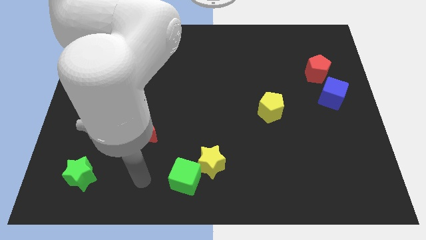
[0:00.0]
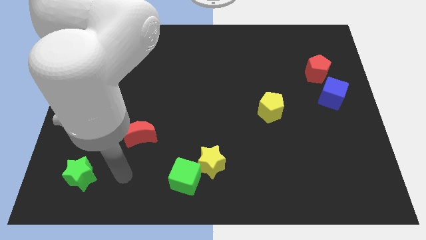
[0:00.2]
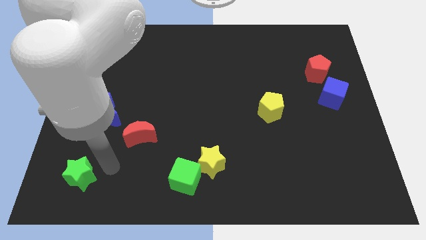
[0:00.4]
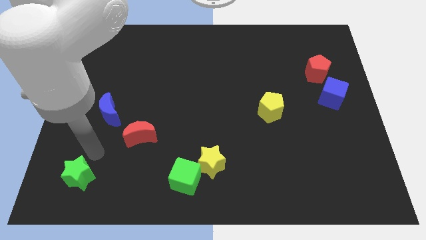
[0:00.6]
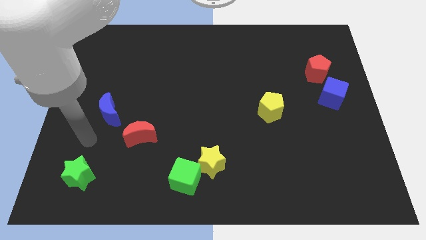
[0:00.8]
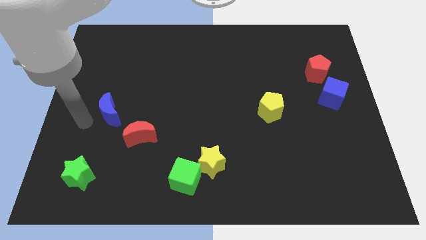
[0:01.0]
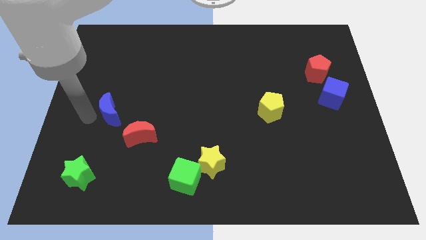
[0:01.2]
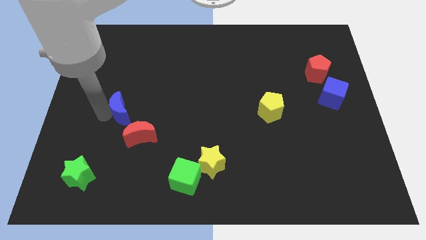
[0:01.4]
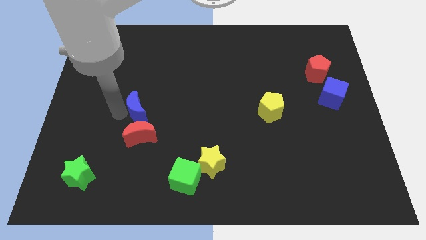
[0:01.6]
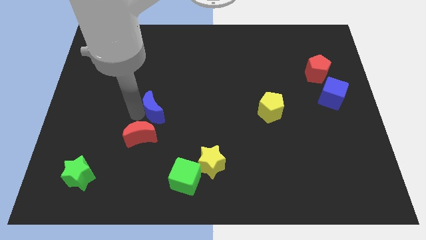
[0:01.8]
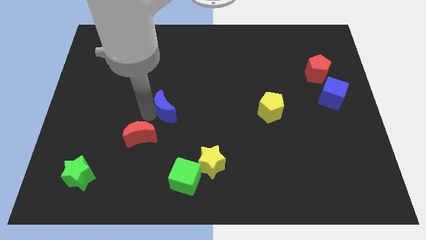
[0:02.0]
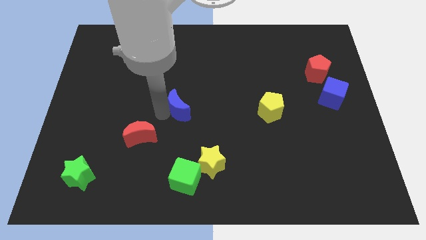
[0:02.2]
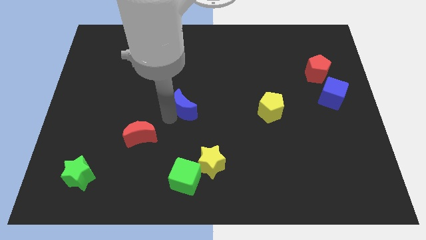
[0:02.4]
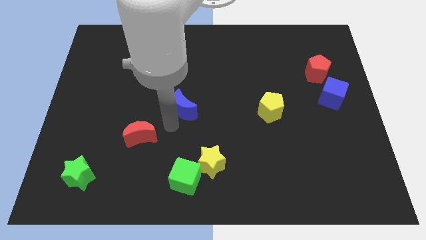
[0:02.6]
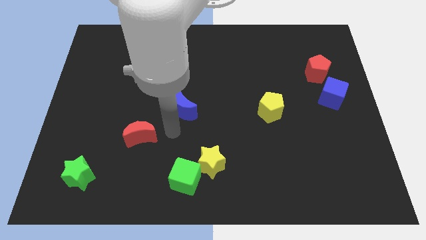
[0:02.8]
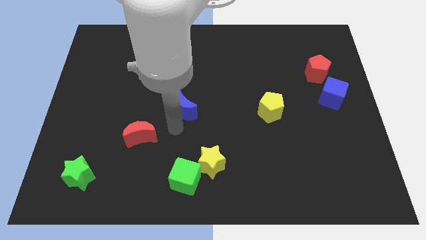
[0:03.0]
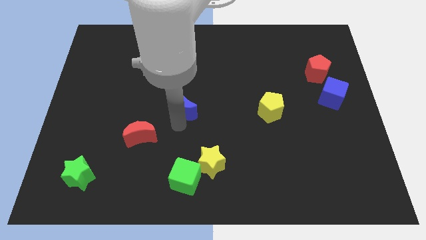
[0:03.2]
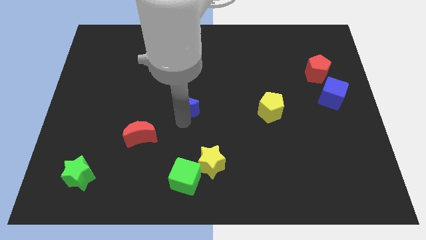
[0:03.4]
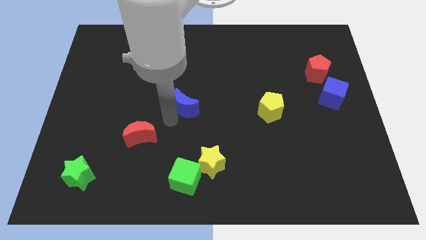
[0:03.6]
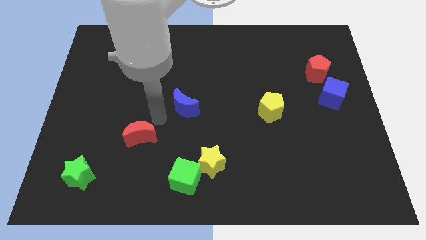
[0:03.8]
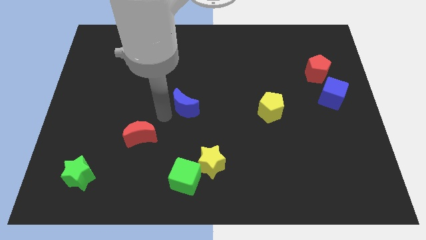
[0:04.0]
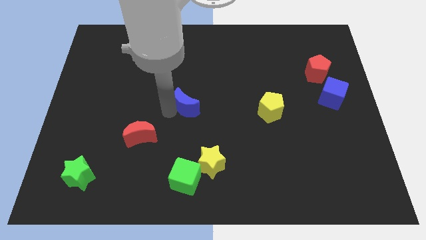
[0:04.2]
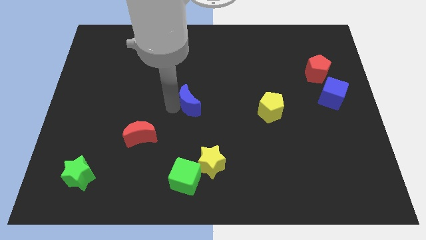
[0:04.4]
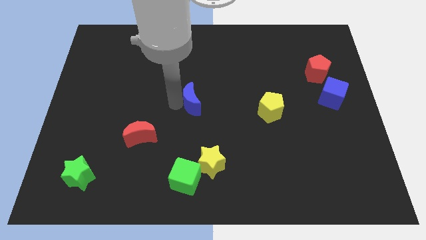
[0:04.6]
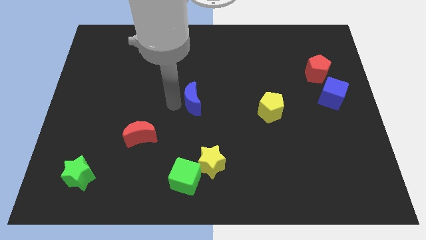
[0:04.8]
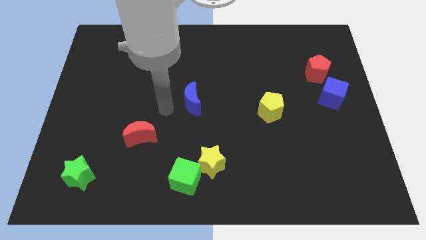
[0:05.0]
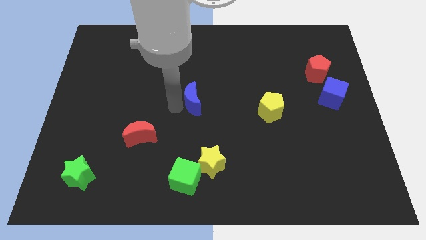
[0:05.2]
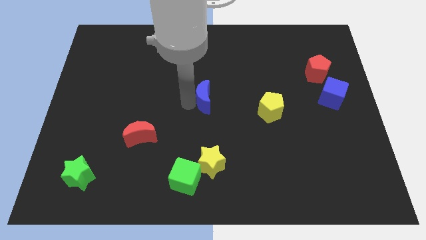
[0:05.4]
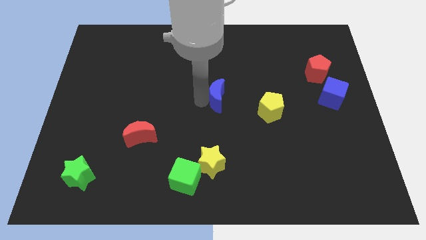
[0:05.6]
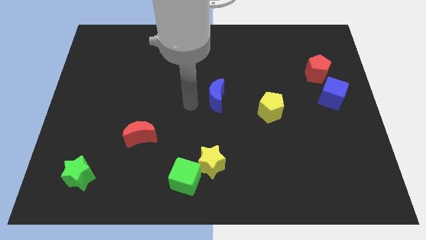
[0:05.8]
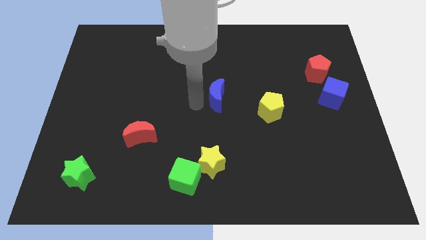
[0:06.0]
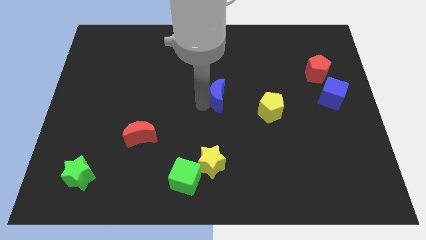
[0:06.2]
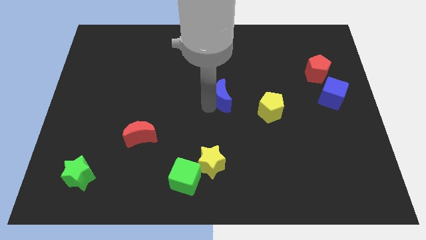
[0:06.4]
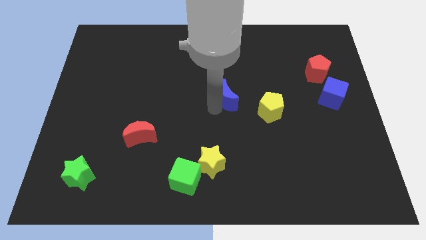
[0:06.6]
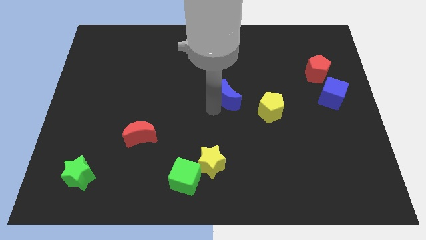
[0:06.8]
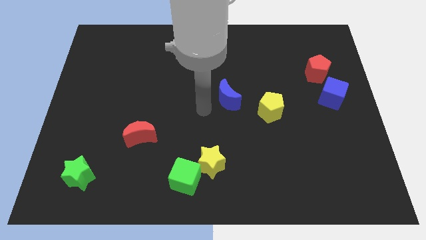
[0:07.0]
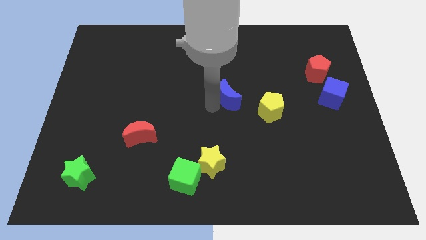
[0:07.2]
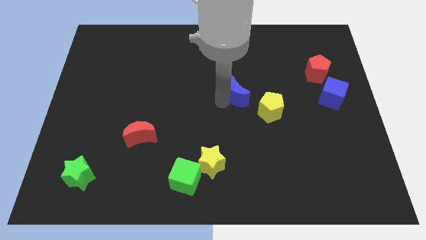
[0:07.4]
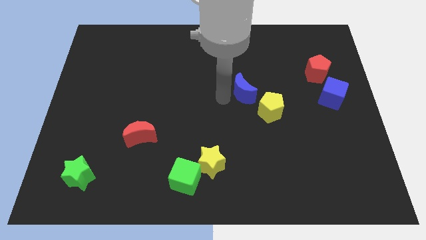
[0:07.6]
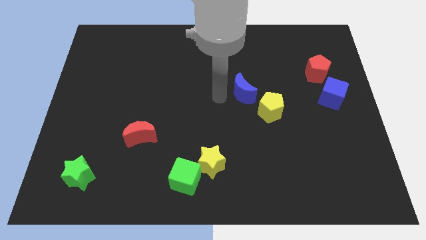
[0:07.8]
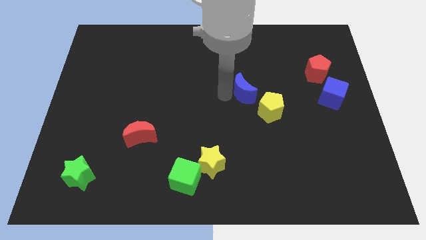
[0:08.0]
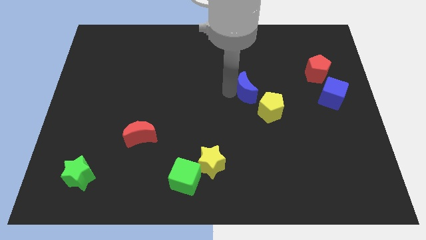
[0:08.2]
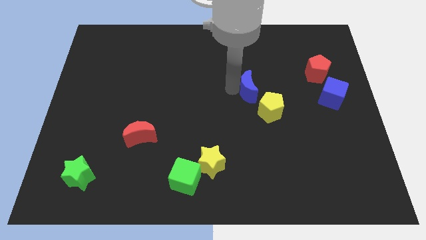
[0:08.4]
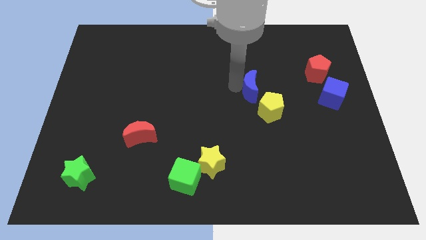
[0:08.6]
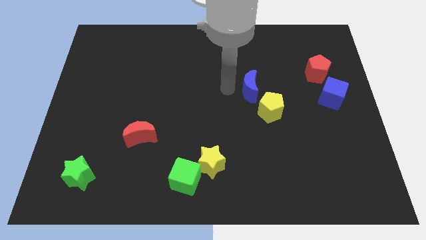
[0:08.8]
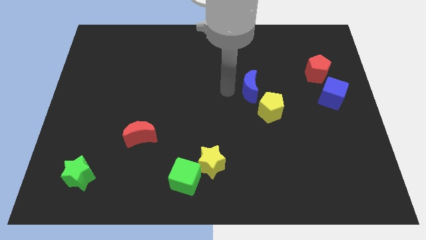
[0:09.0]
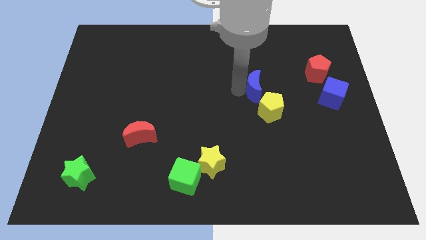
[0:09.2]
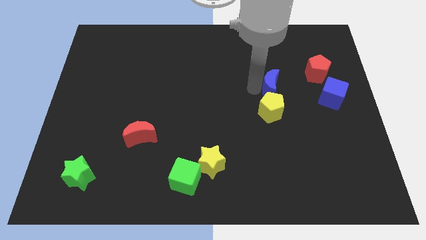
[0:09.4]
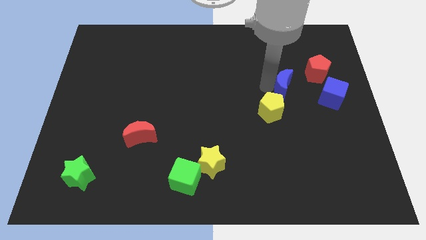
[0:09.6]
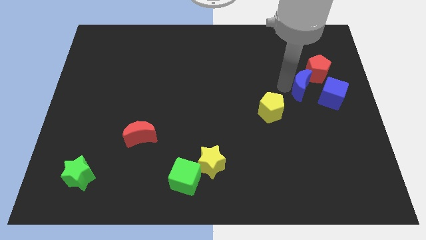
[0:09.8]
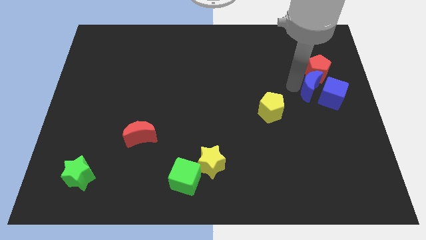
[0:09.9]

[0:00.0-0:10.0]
push the blue moon to the blue cube

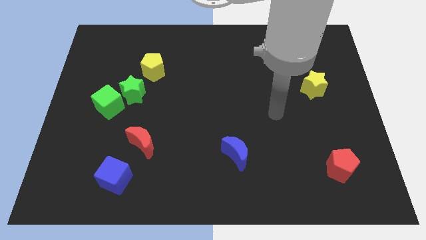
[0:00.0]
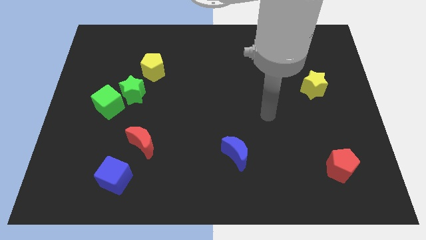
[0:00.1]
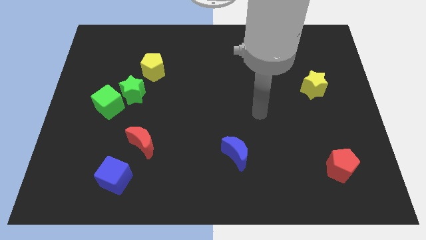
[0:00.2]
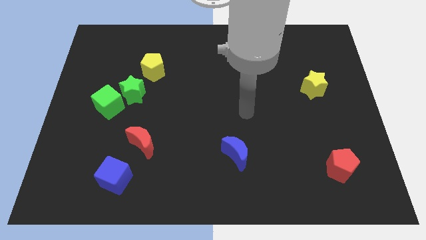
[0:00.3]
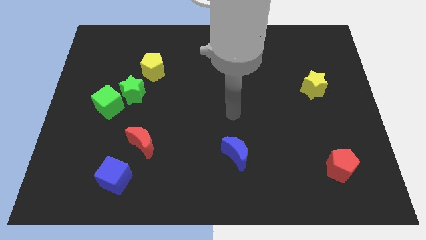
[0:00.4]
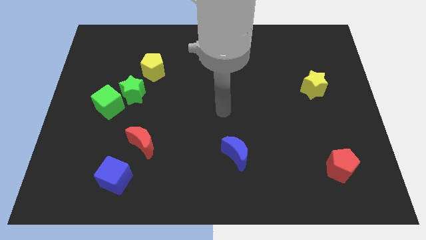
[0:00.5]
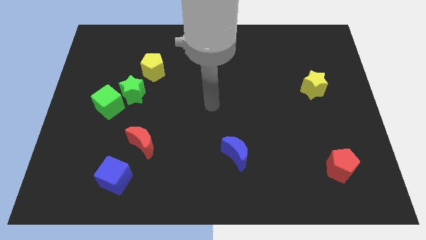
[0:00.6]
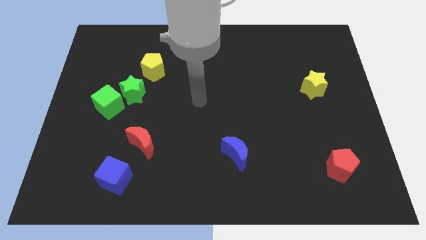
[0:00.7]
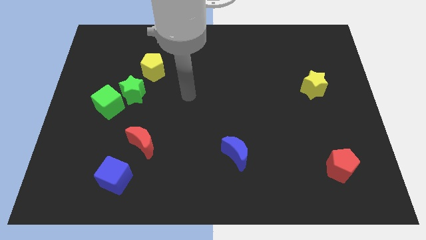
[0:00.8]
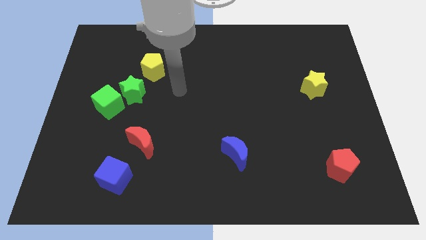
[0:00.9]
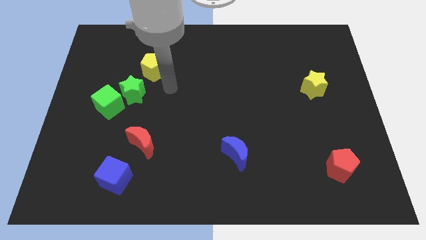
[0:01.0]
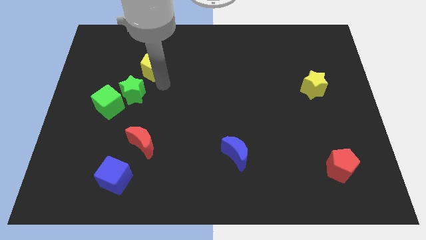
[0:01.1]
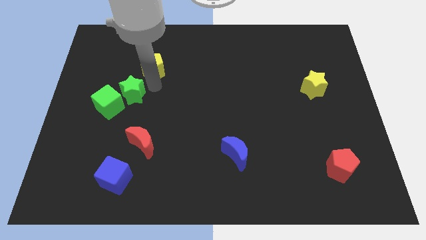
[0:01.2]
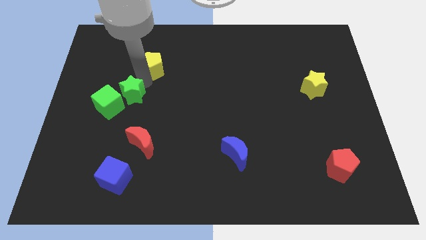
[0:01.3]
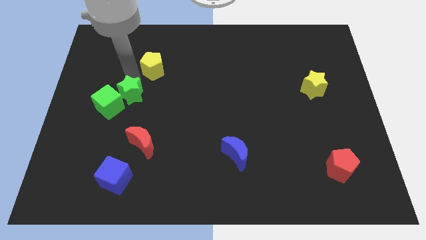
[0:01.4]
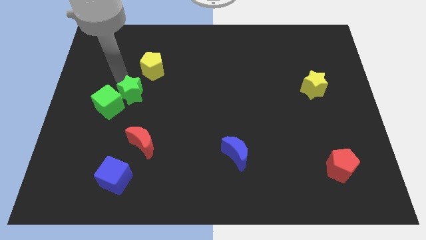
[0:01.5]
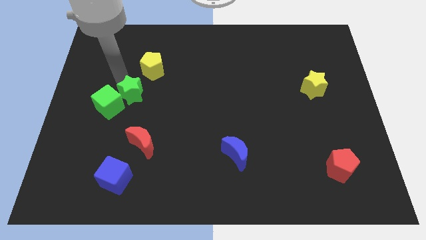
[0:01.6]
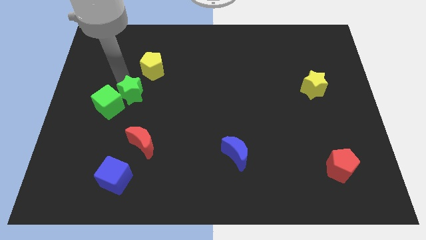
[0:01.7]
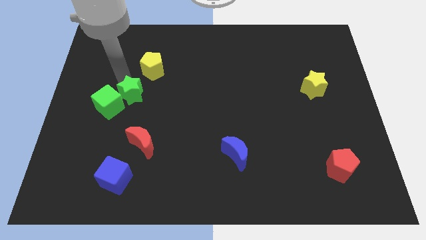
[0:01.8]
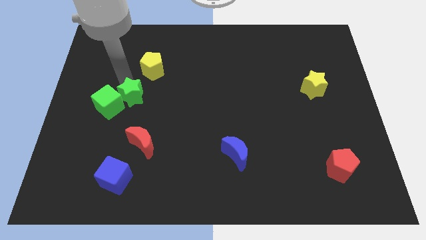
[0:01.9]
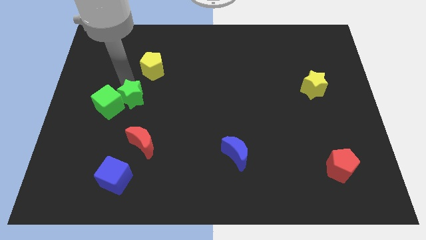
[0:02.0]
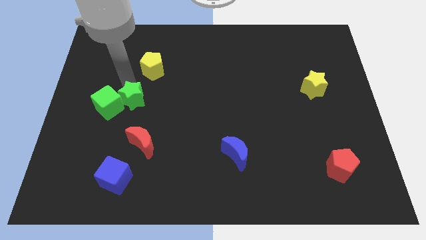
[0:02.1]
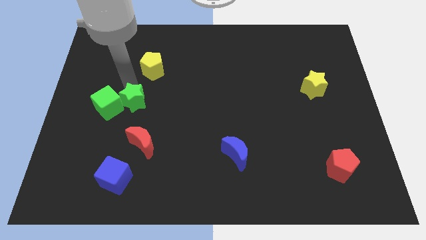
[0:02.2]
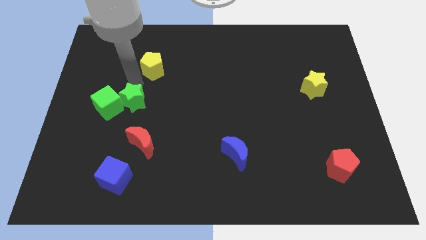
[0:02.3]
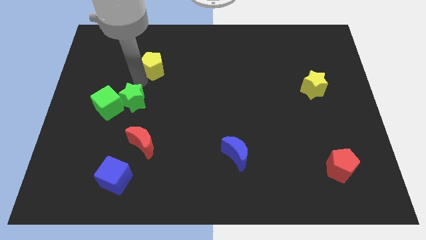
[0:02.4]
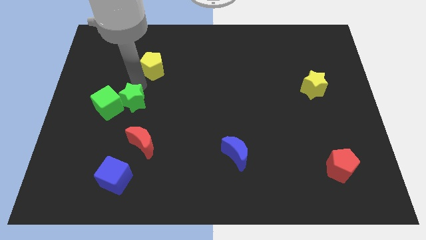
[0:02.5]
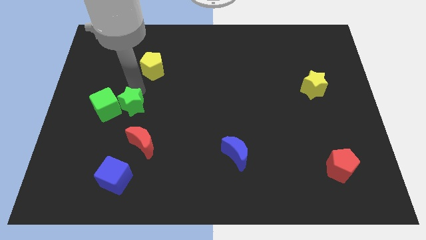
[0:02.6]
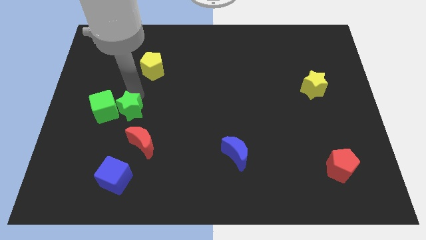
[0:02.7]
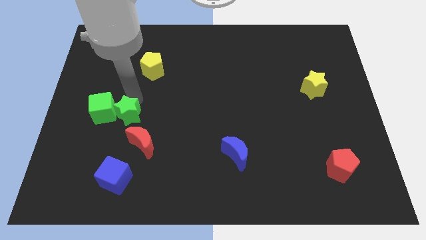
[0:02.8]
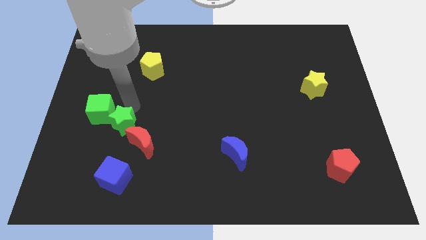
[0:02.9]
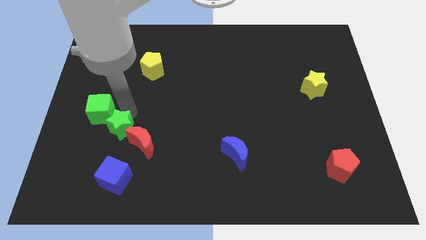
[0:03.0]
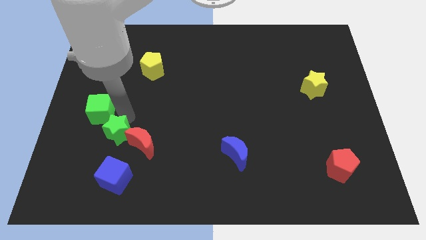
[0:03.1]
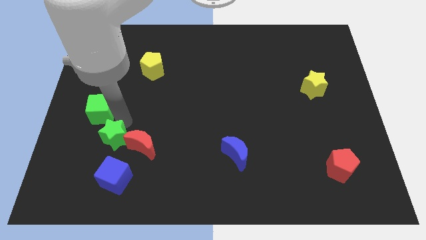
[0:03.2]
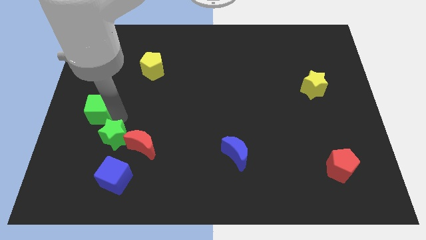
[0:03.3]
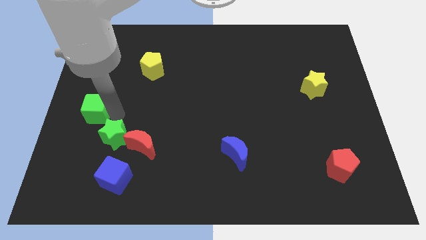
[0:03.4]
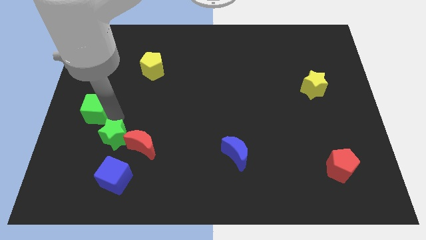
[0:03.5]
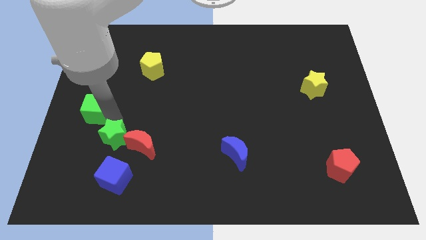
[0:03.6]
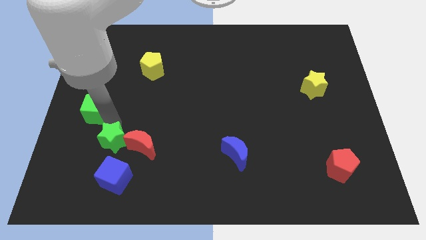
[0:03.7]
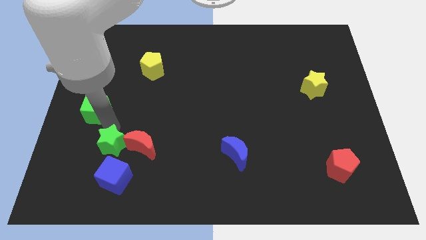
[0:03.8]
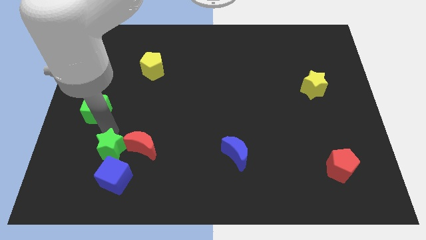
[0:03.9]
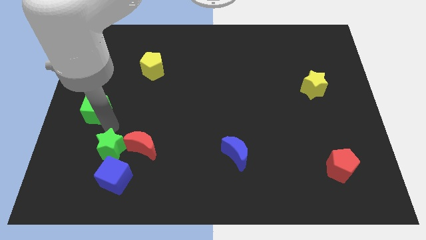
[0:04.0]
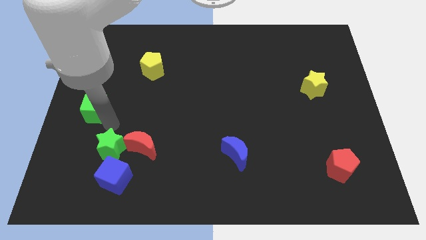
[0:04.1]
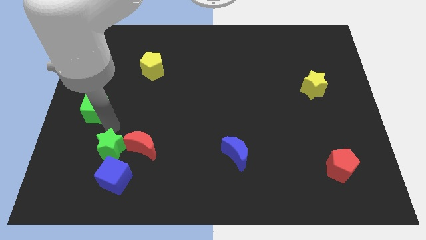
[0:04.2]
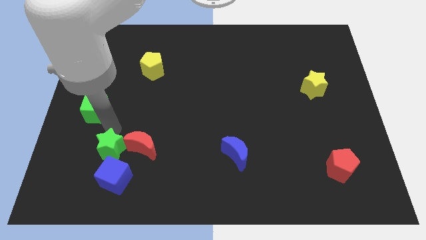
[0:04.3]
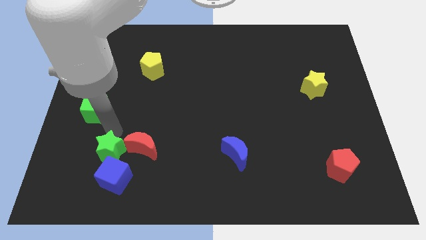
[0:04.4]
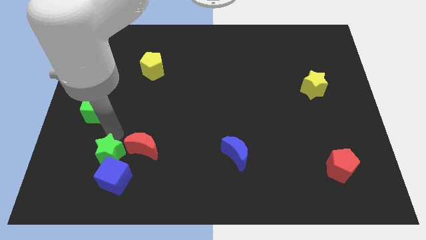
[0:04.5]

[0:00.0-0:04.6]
put the green star to the blue cube
